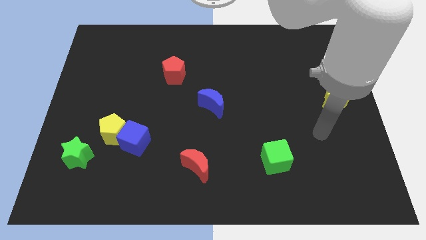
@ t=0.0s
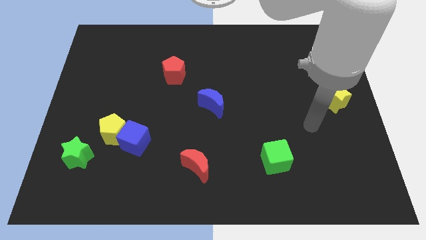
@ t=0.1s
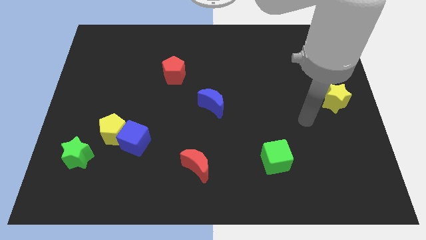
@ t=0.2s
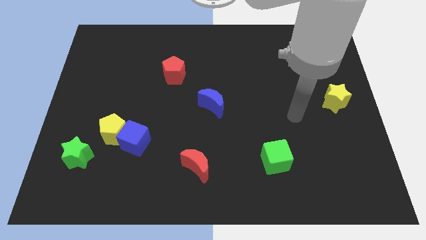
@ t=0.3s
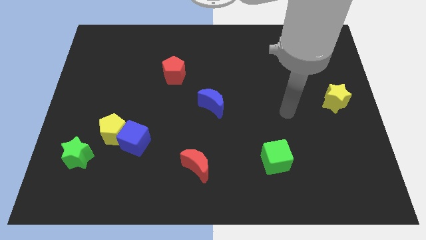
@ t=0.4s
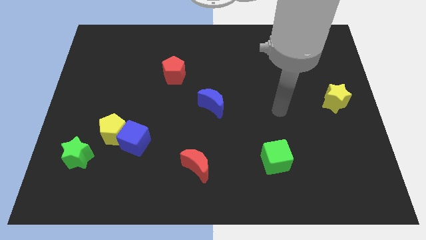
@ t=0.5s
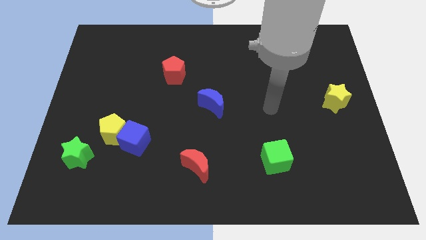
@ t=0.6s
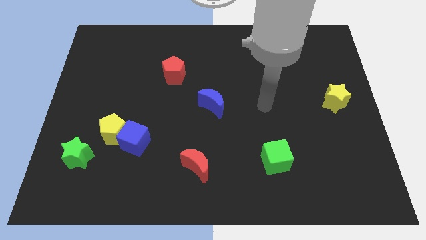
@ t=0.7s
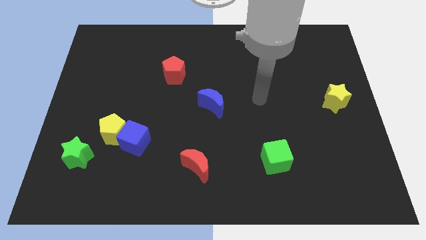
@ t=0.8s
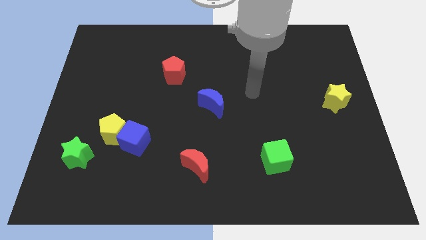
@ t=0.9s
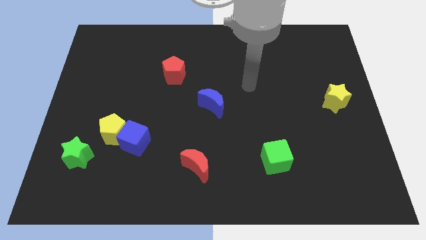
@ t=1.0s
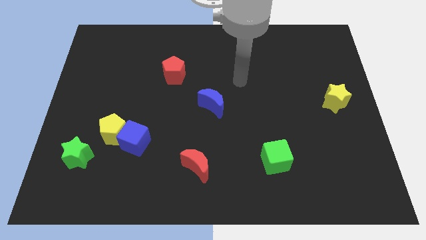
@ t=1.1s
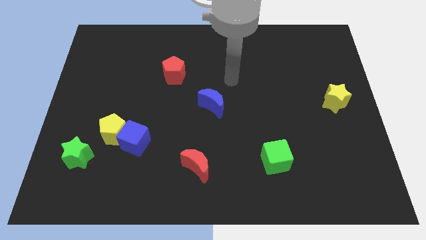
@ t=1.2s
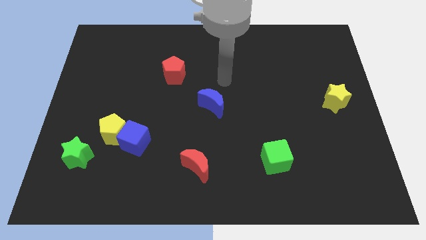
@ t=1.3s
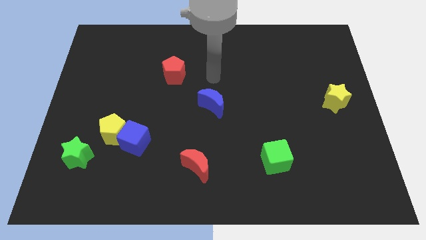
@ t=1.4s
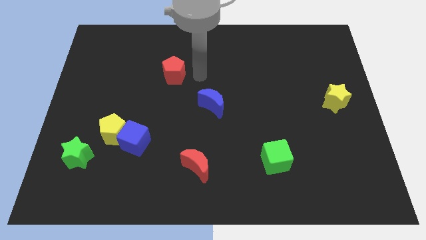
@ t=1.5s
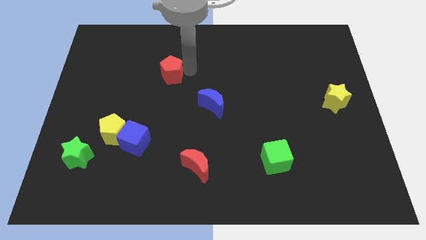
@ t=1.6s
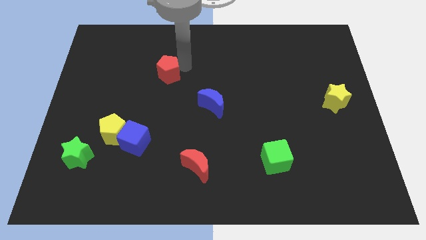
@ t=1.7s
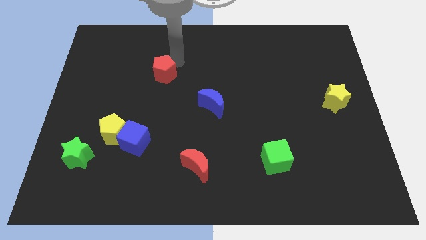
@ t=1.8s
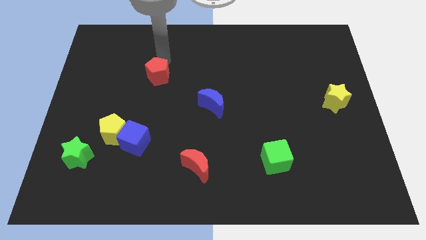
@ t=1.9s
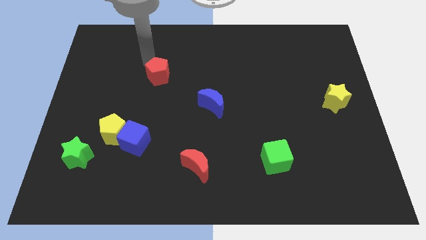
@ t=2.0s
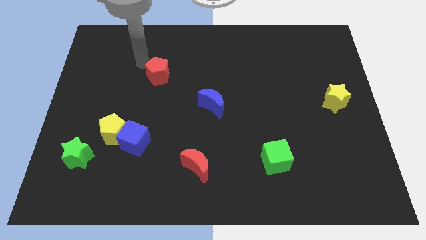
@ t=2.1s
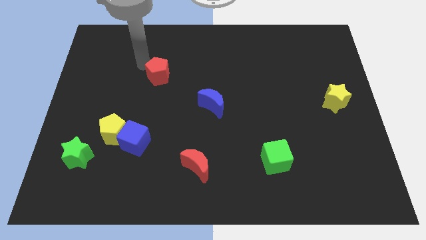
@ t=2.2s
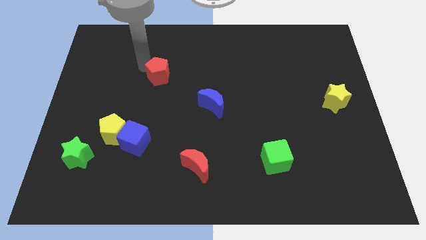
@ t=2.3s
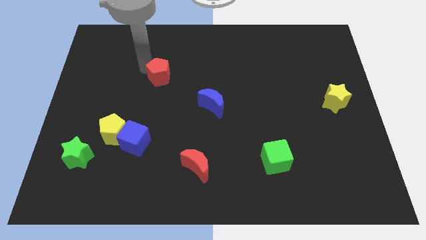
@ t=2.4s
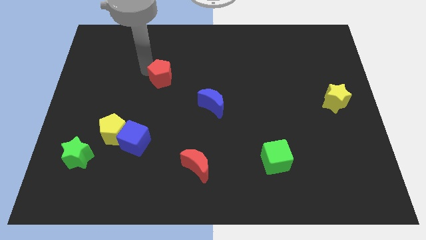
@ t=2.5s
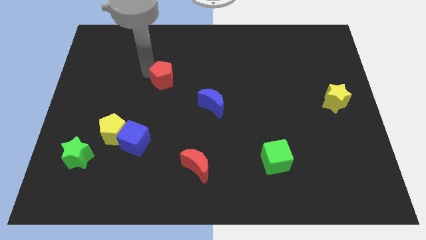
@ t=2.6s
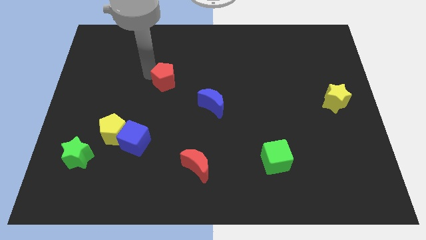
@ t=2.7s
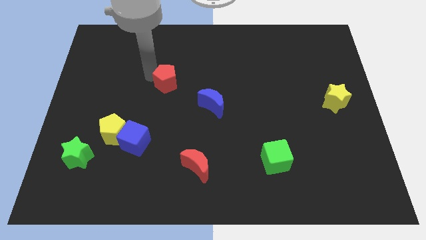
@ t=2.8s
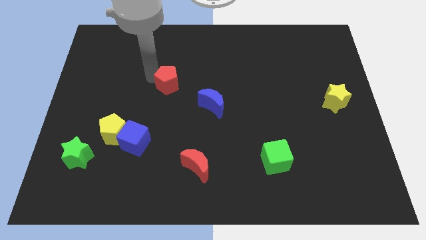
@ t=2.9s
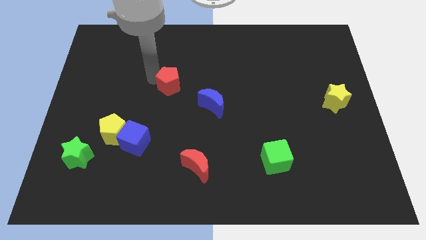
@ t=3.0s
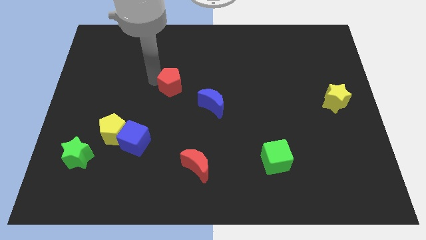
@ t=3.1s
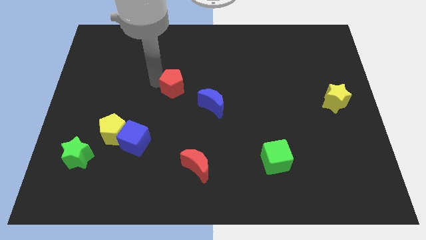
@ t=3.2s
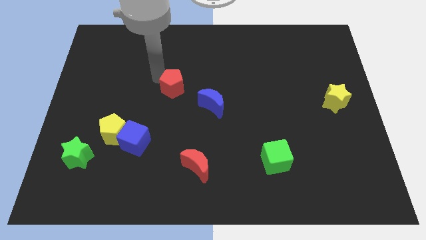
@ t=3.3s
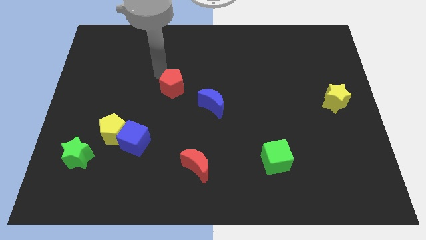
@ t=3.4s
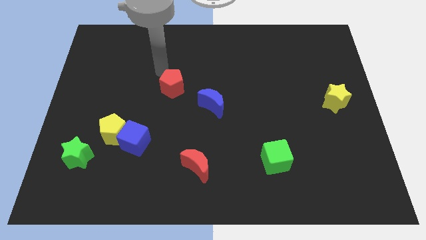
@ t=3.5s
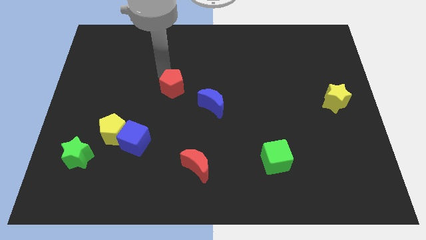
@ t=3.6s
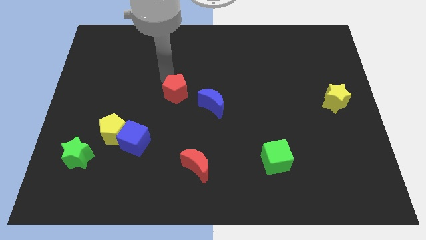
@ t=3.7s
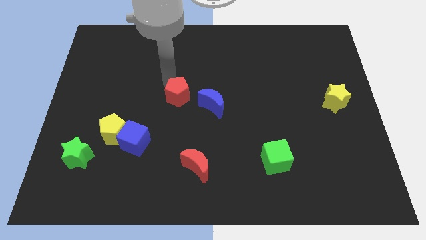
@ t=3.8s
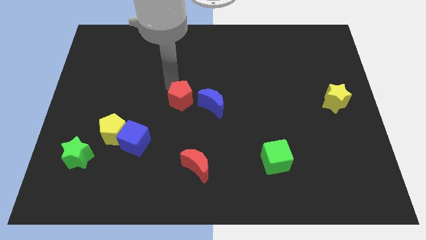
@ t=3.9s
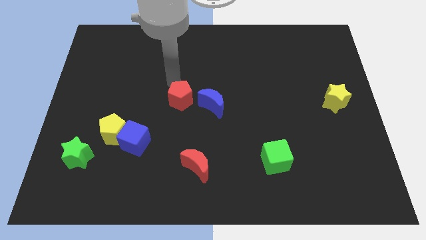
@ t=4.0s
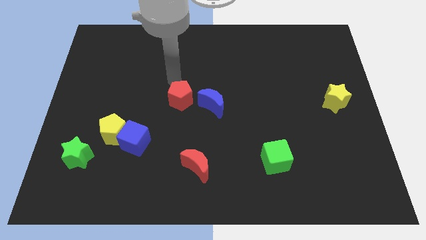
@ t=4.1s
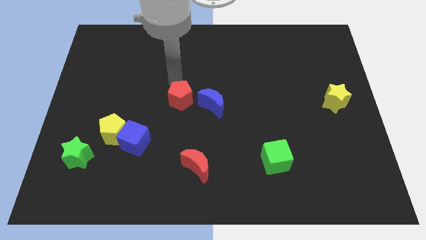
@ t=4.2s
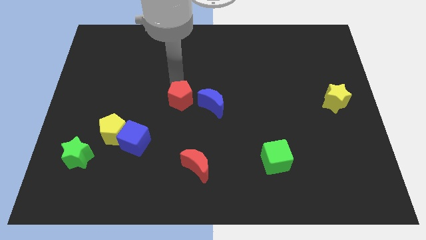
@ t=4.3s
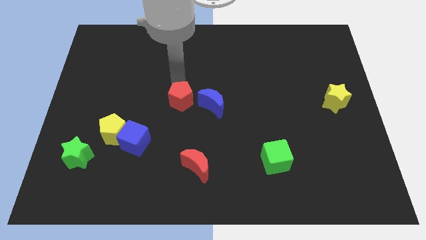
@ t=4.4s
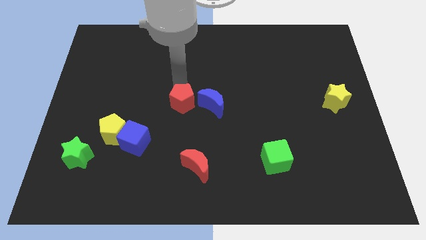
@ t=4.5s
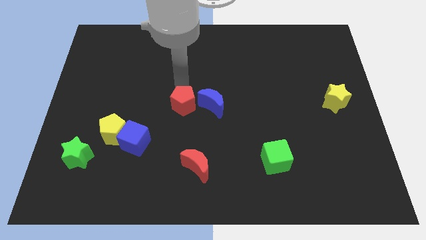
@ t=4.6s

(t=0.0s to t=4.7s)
slide the red pentagon to the bottom left of the blue moon

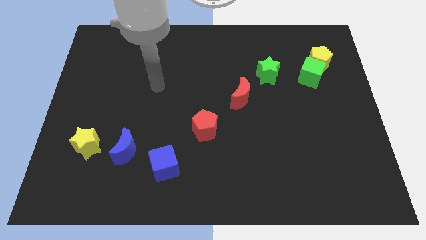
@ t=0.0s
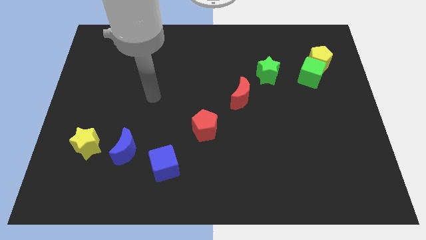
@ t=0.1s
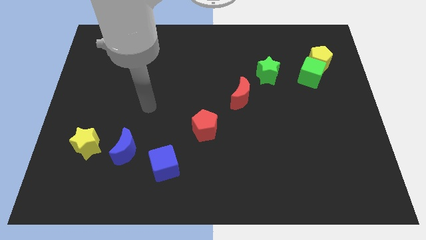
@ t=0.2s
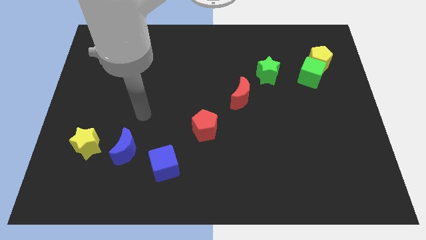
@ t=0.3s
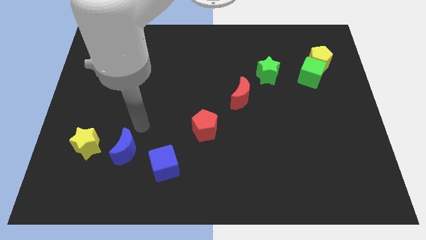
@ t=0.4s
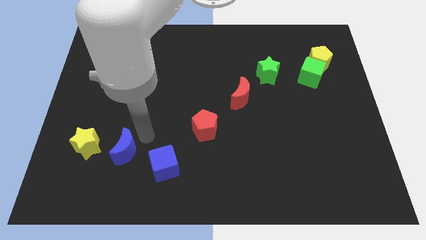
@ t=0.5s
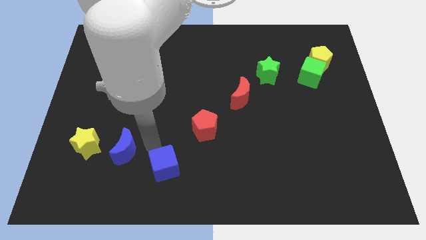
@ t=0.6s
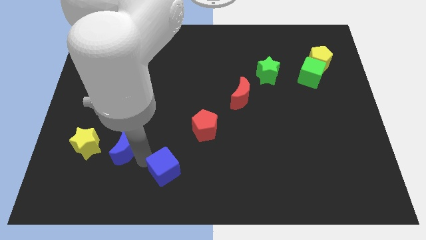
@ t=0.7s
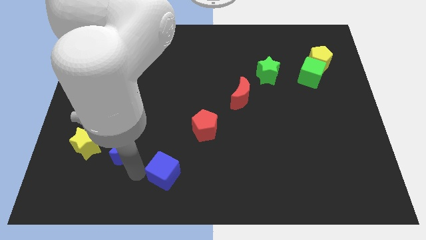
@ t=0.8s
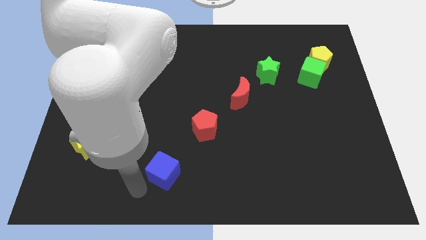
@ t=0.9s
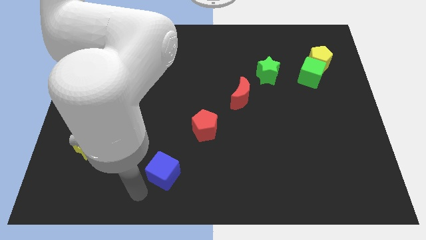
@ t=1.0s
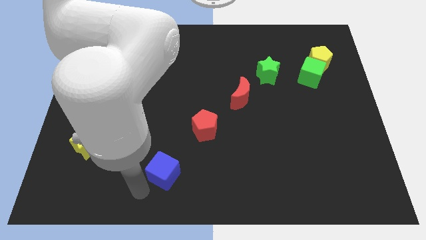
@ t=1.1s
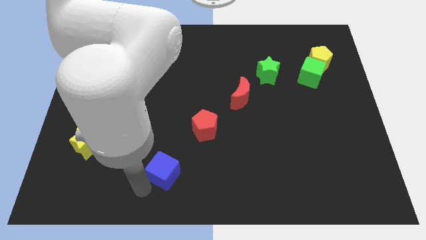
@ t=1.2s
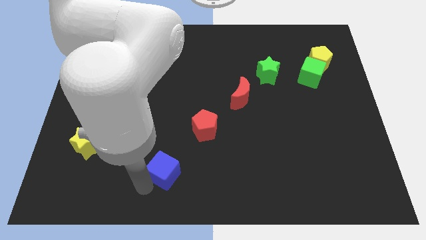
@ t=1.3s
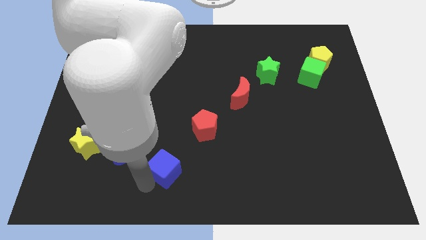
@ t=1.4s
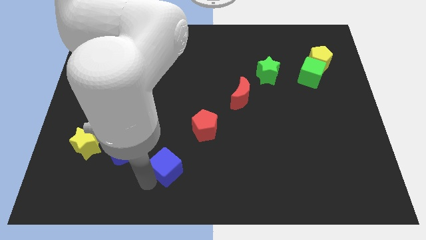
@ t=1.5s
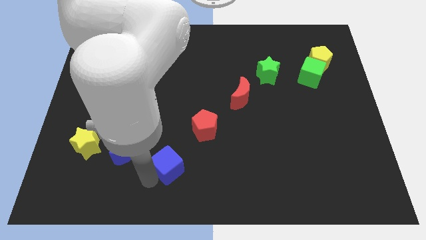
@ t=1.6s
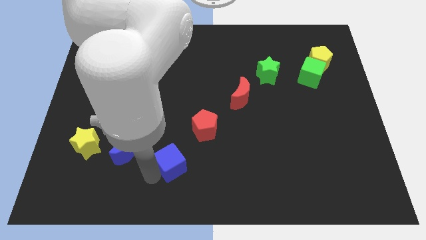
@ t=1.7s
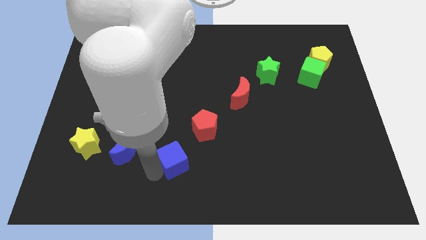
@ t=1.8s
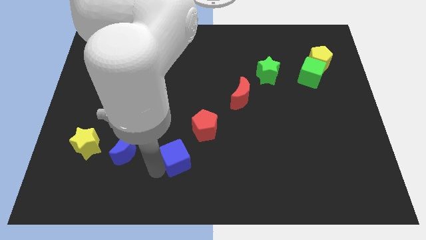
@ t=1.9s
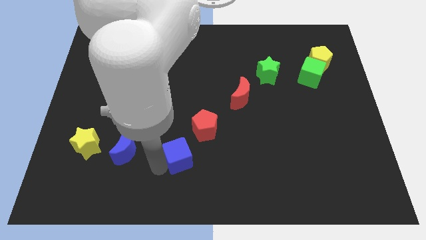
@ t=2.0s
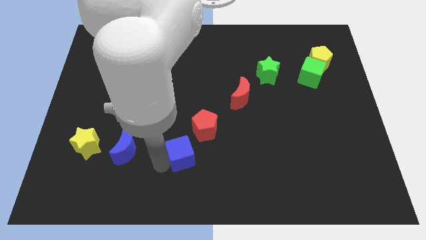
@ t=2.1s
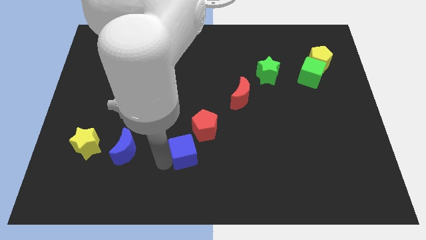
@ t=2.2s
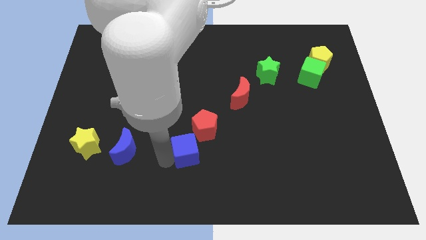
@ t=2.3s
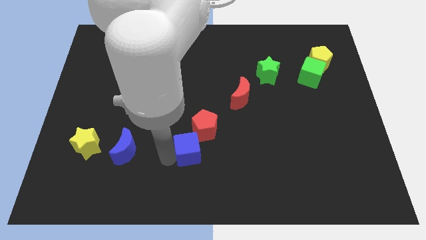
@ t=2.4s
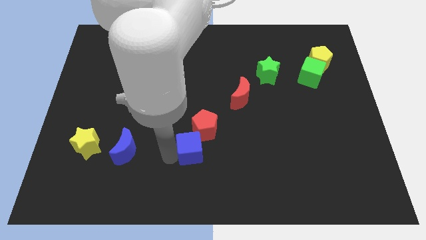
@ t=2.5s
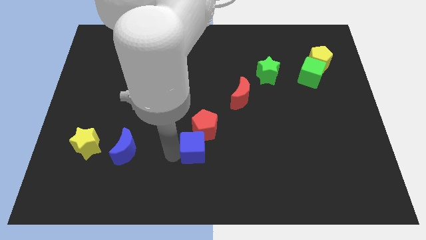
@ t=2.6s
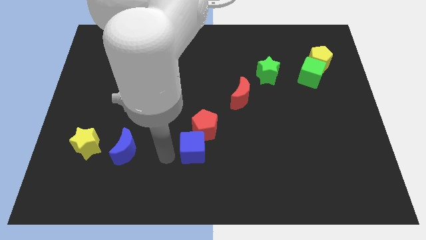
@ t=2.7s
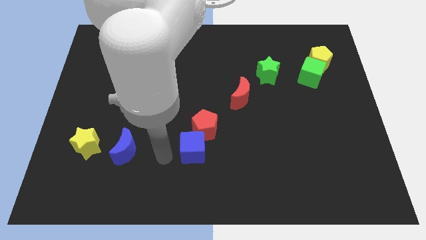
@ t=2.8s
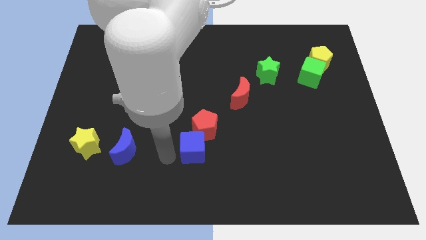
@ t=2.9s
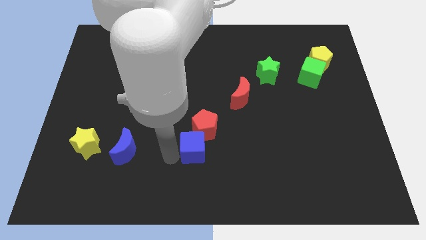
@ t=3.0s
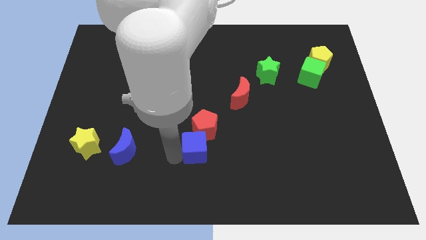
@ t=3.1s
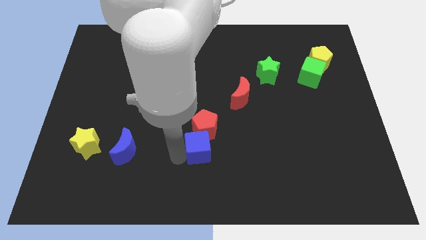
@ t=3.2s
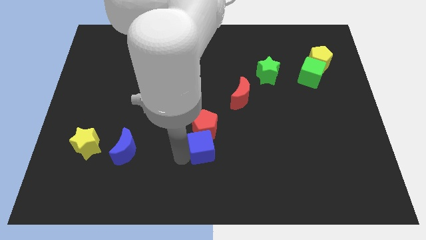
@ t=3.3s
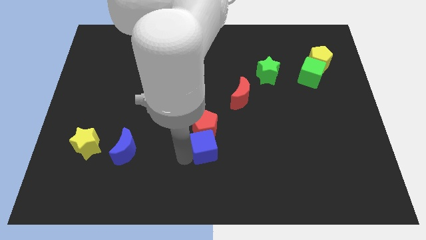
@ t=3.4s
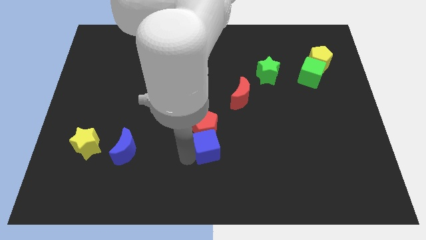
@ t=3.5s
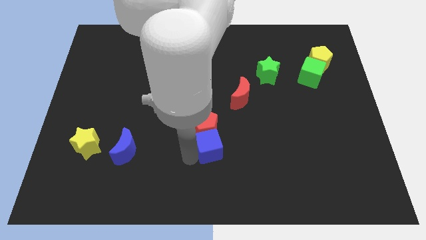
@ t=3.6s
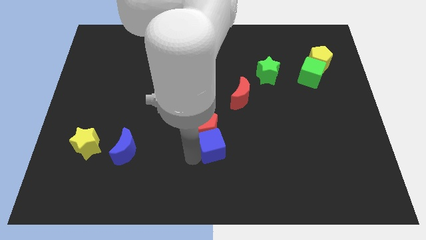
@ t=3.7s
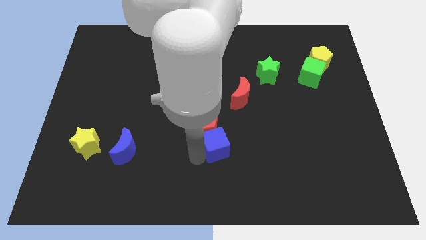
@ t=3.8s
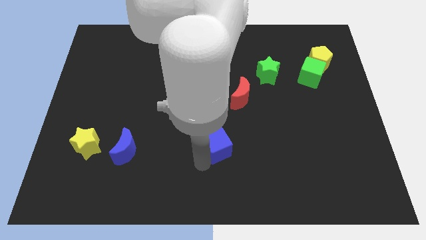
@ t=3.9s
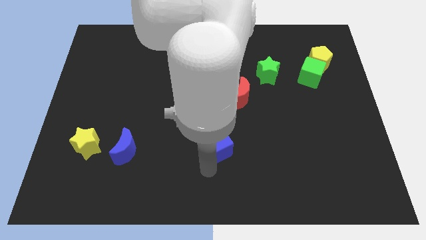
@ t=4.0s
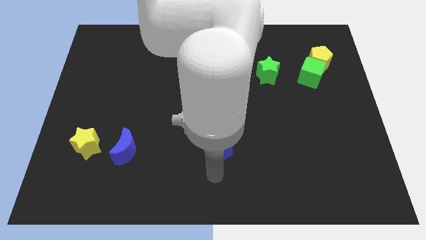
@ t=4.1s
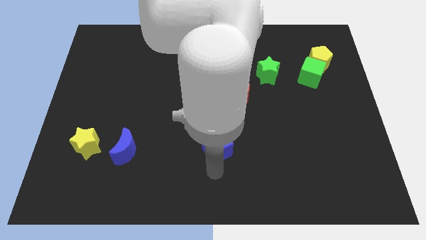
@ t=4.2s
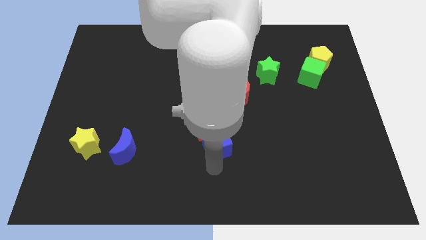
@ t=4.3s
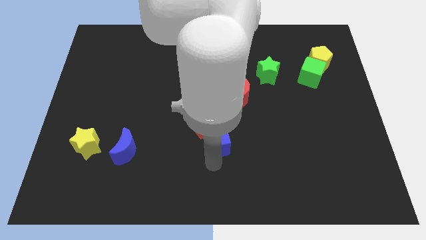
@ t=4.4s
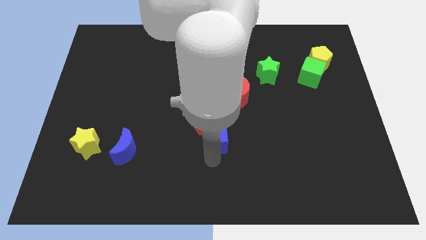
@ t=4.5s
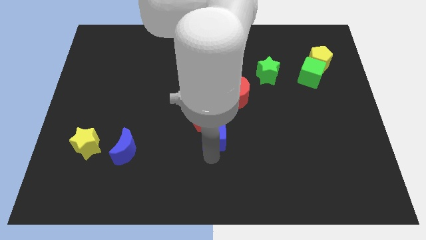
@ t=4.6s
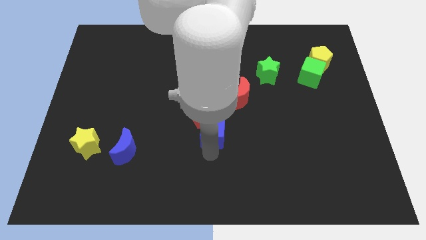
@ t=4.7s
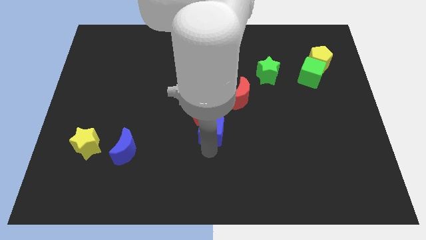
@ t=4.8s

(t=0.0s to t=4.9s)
slide the blue cube diagonally down and to the left of the red moon
